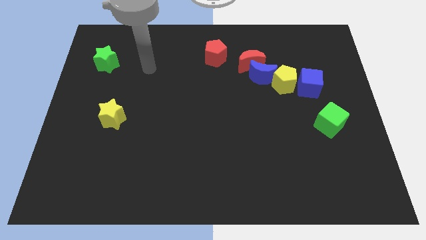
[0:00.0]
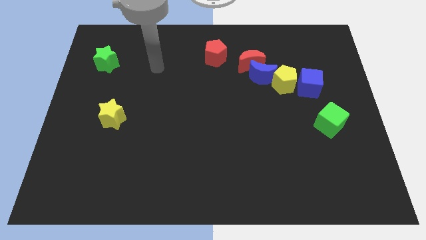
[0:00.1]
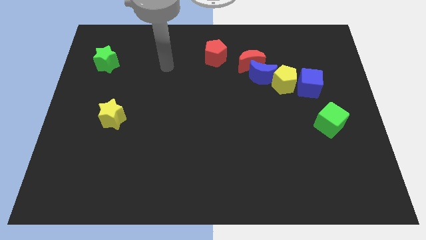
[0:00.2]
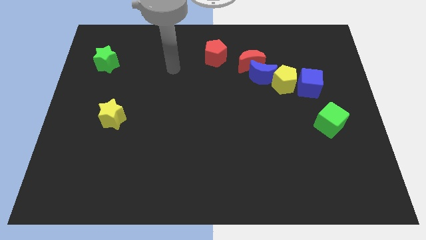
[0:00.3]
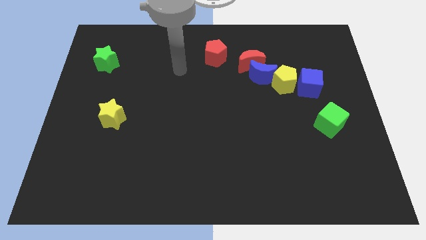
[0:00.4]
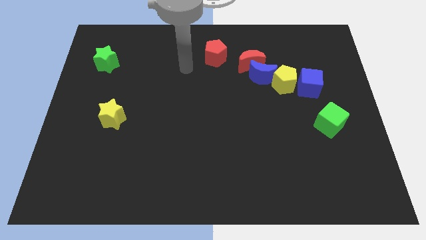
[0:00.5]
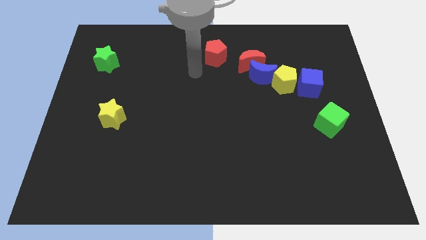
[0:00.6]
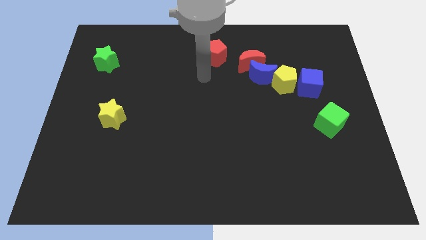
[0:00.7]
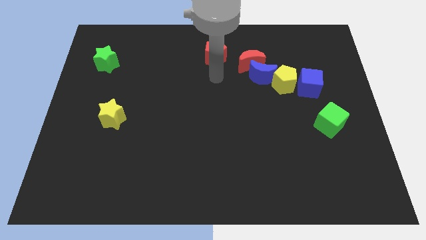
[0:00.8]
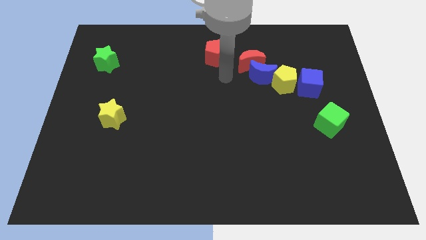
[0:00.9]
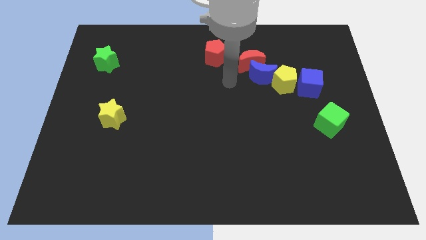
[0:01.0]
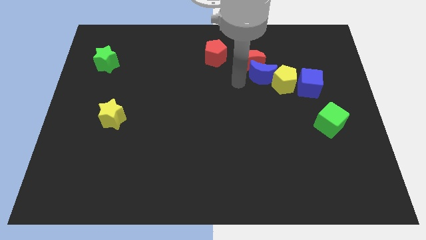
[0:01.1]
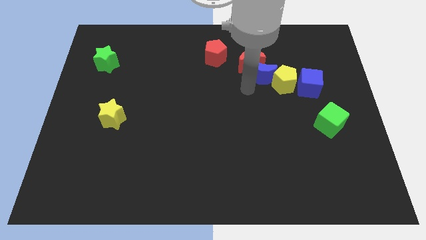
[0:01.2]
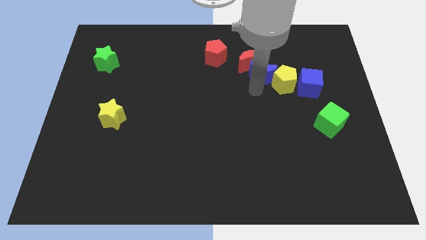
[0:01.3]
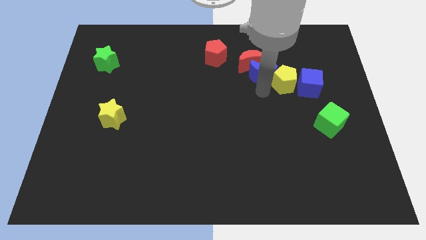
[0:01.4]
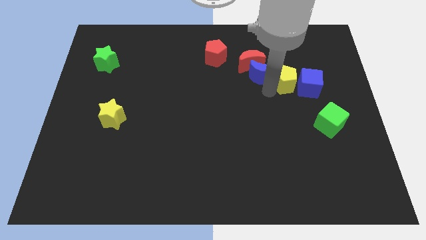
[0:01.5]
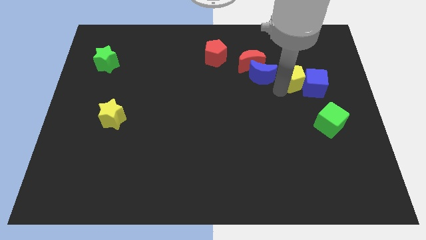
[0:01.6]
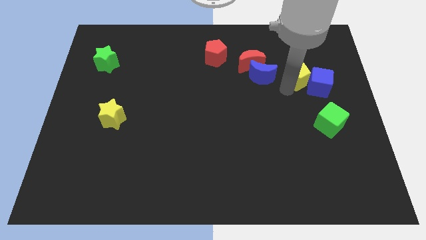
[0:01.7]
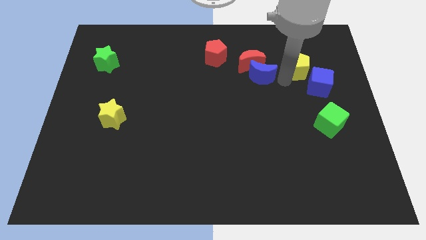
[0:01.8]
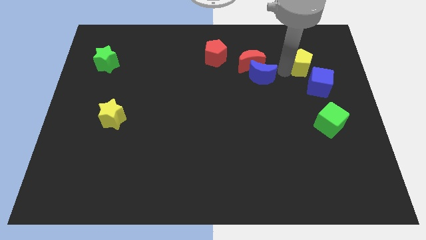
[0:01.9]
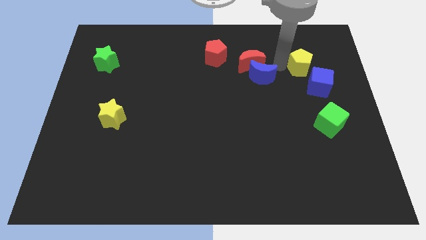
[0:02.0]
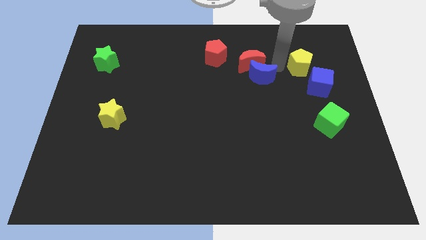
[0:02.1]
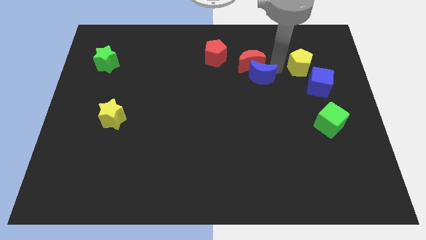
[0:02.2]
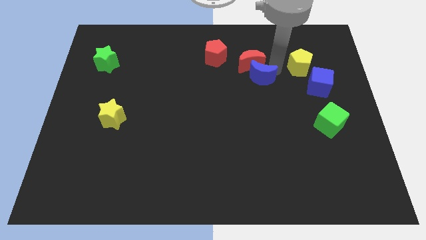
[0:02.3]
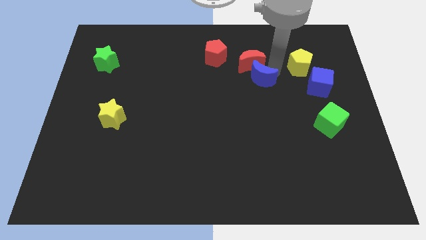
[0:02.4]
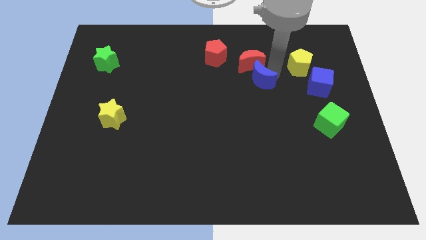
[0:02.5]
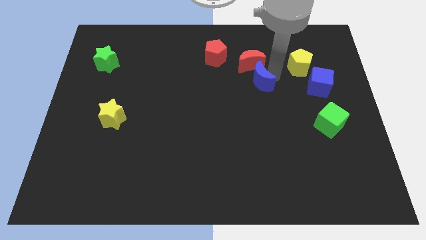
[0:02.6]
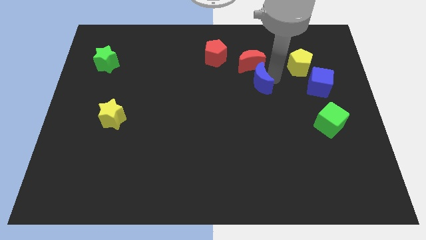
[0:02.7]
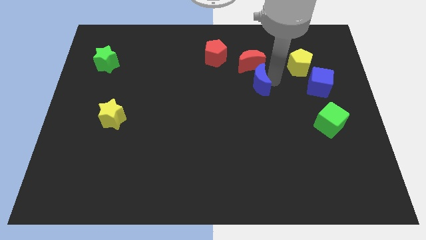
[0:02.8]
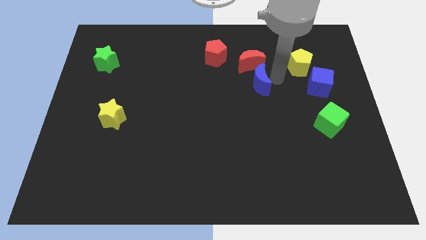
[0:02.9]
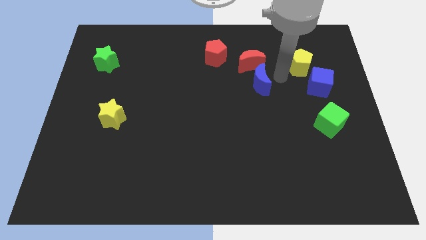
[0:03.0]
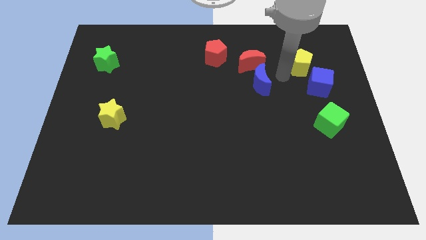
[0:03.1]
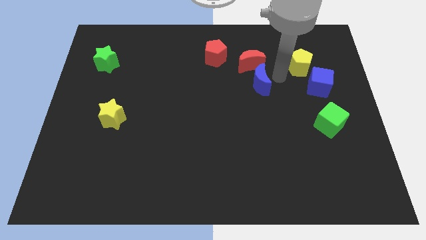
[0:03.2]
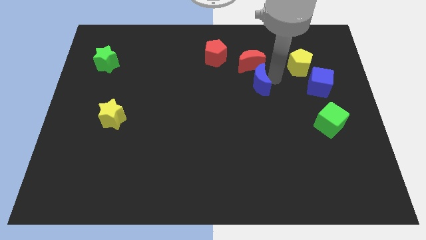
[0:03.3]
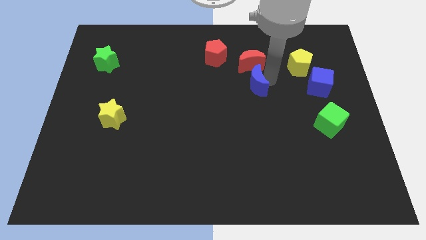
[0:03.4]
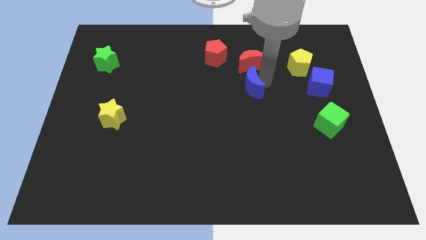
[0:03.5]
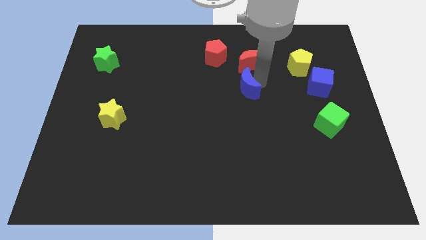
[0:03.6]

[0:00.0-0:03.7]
pull the blue moon apart from the red moon and yellow pentagon

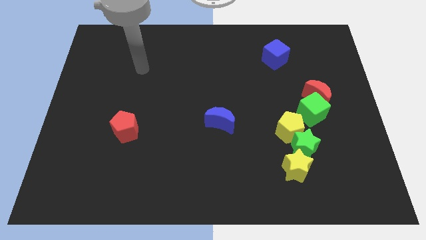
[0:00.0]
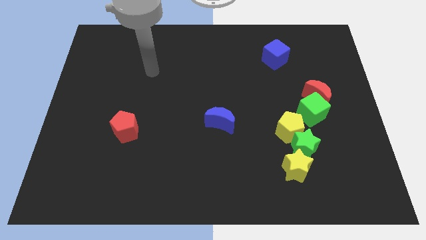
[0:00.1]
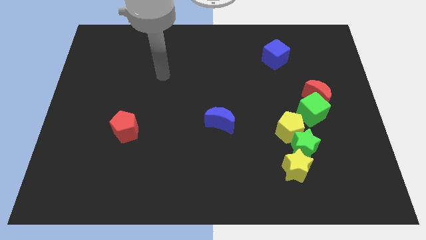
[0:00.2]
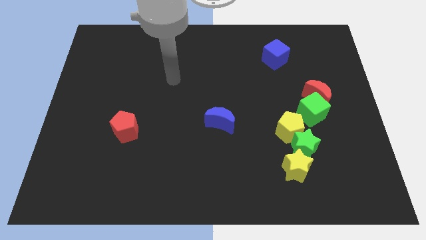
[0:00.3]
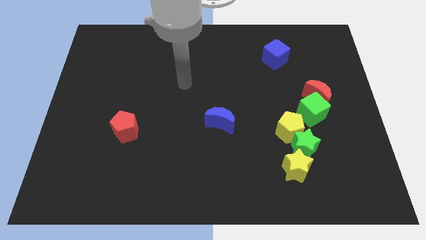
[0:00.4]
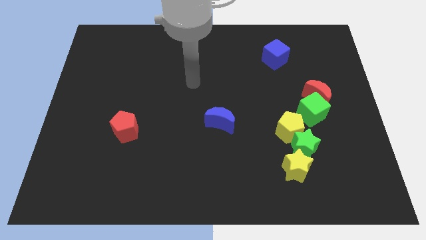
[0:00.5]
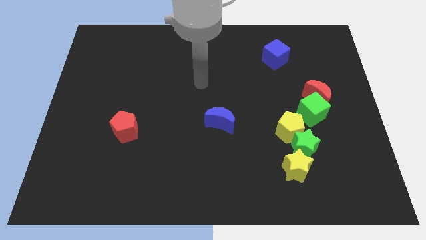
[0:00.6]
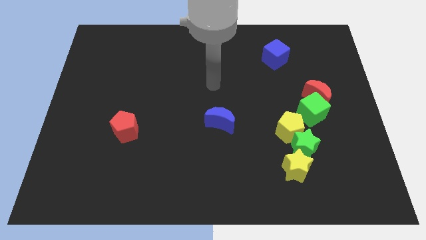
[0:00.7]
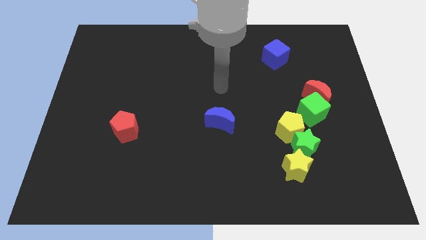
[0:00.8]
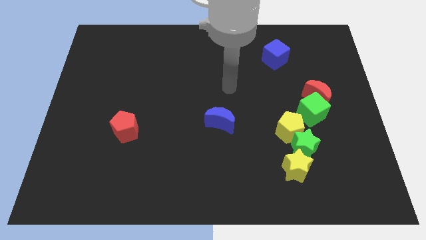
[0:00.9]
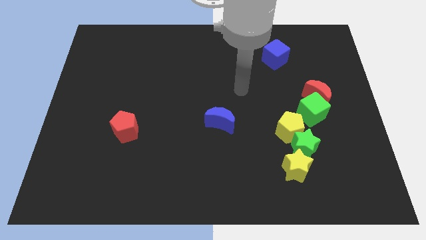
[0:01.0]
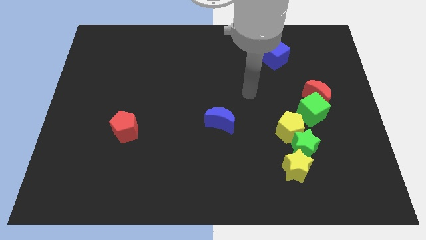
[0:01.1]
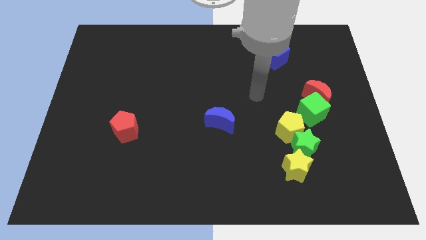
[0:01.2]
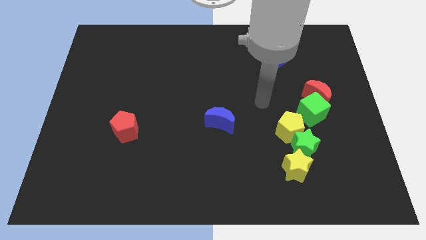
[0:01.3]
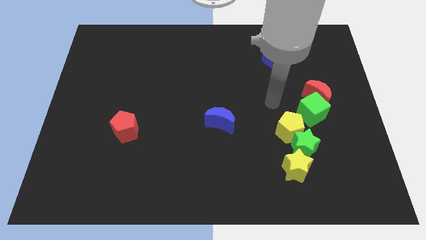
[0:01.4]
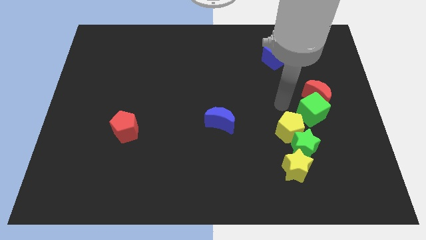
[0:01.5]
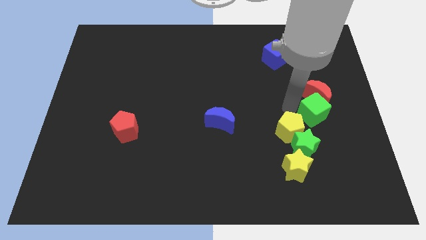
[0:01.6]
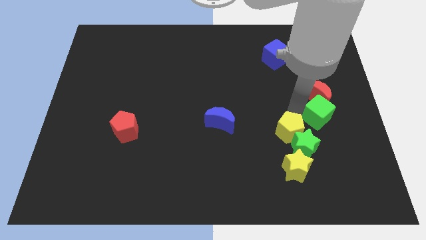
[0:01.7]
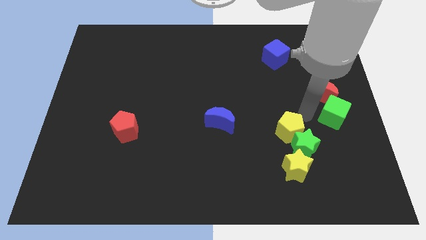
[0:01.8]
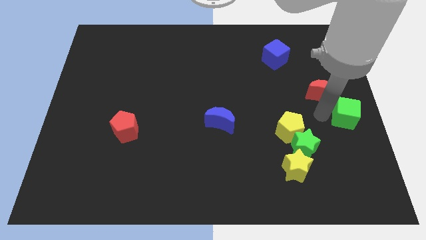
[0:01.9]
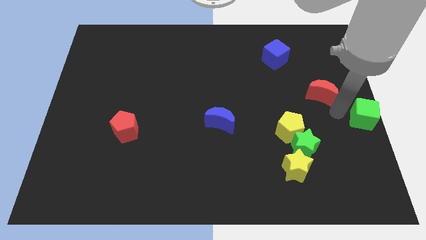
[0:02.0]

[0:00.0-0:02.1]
separate the red moon from the green cube

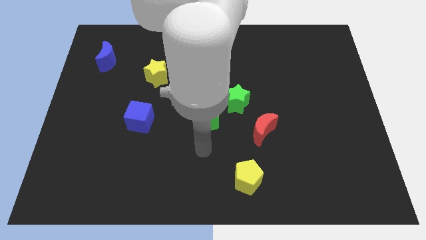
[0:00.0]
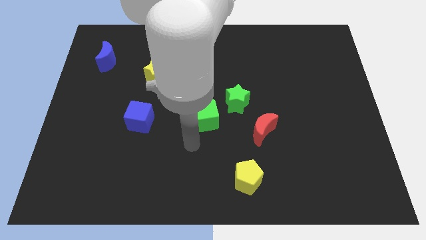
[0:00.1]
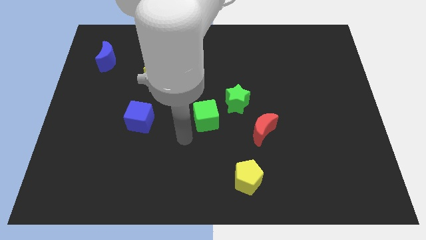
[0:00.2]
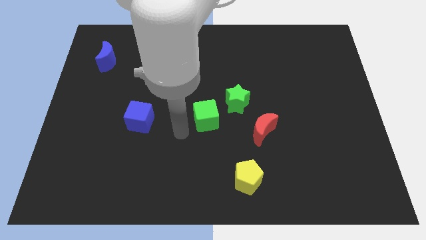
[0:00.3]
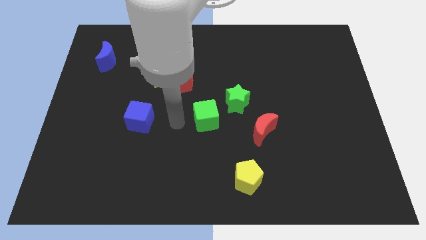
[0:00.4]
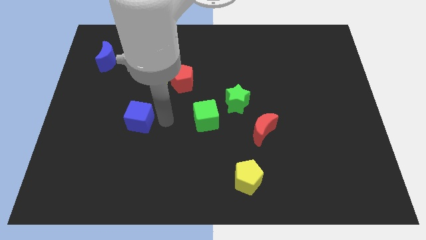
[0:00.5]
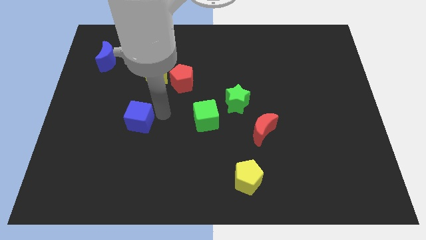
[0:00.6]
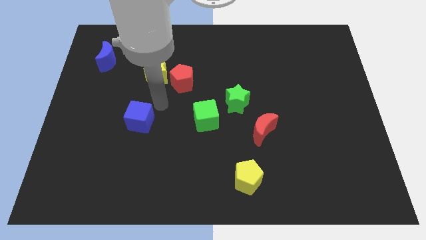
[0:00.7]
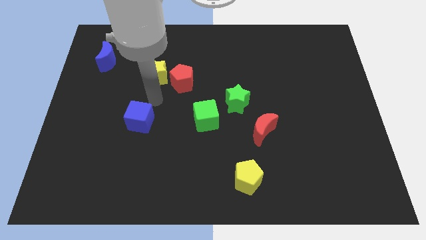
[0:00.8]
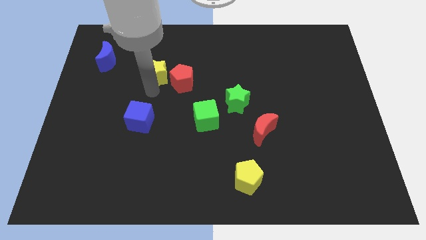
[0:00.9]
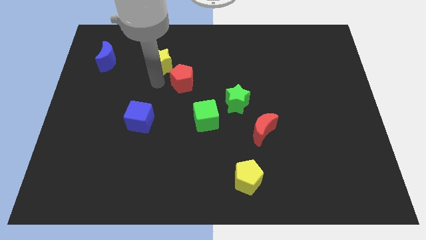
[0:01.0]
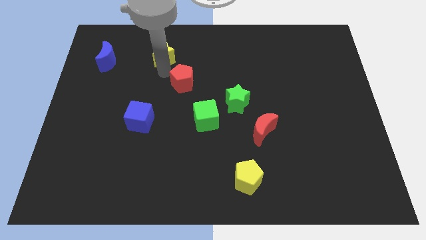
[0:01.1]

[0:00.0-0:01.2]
move the red pentagon away from the yellow star

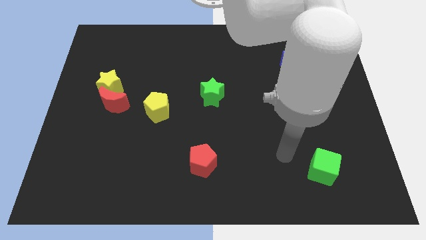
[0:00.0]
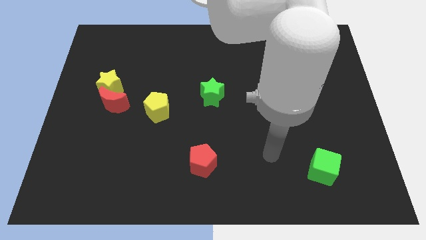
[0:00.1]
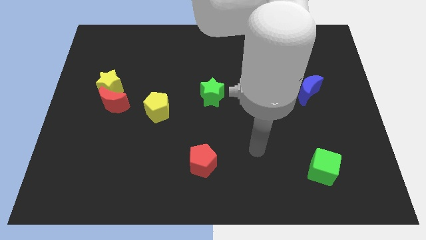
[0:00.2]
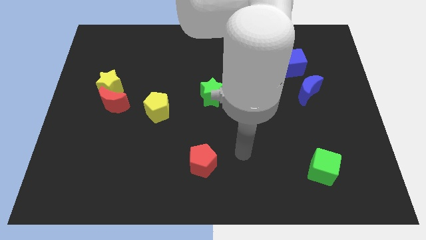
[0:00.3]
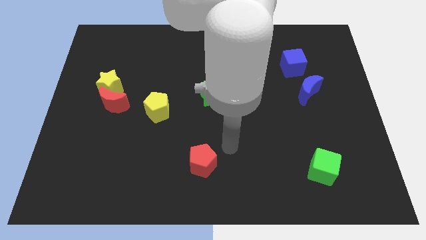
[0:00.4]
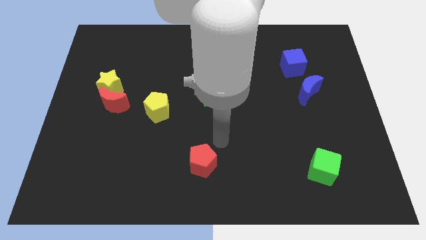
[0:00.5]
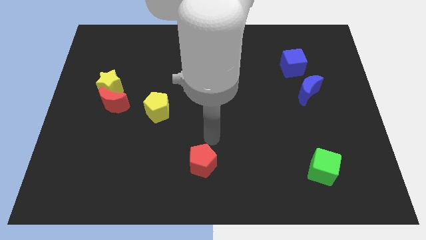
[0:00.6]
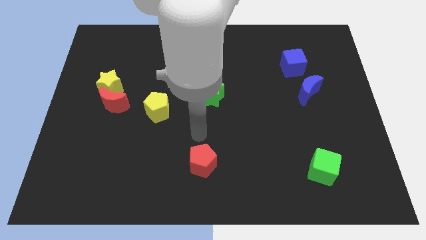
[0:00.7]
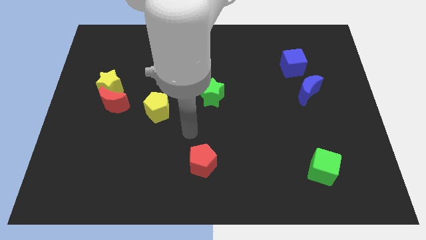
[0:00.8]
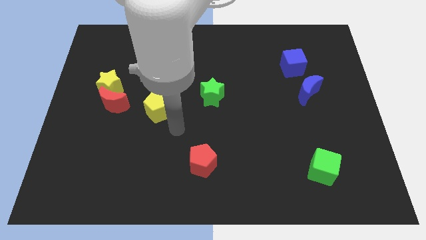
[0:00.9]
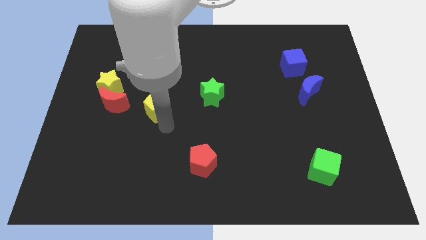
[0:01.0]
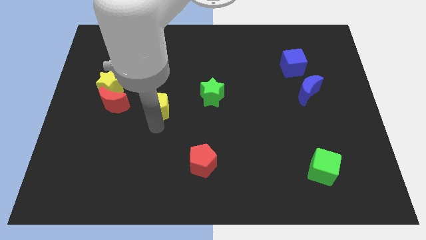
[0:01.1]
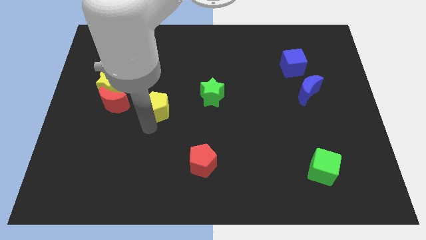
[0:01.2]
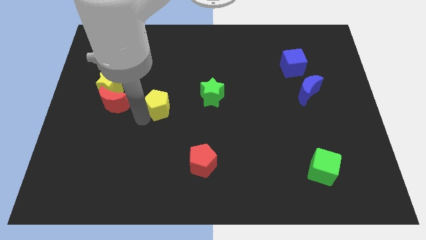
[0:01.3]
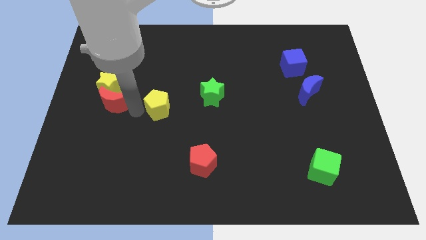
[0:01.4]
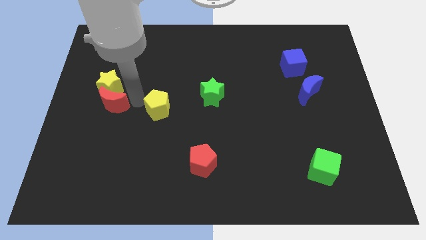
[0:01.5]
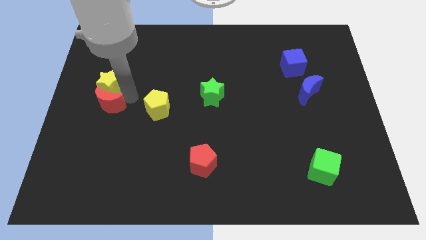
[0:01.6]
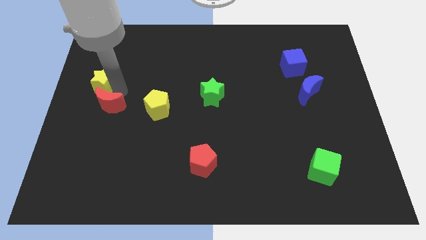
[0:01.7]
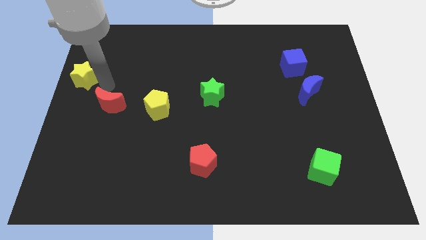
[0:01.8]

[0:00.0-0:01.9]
separate the red moon from the yellow star

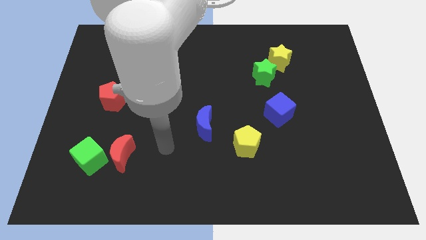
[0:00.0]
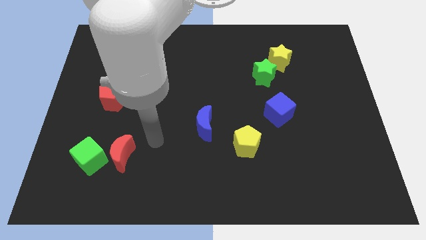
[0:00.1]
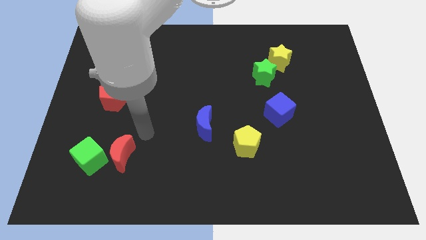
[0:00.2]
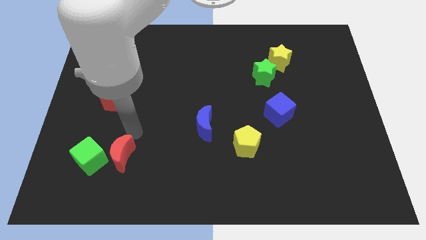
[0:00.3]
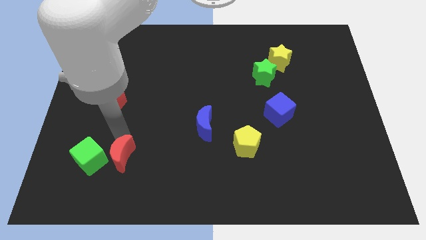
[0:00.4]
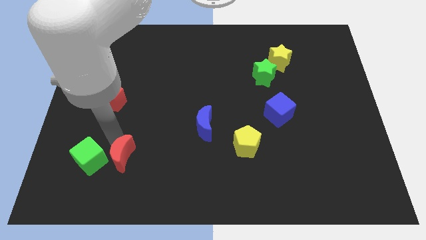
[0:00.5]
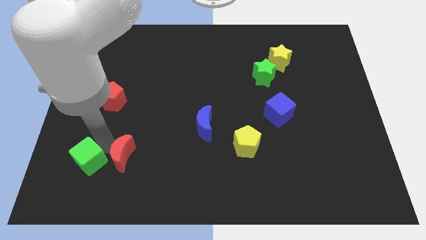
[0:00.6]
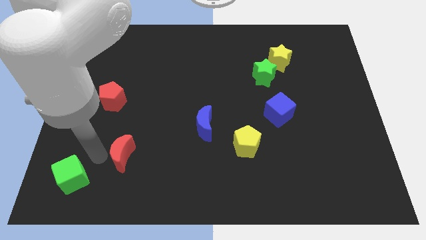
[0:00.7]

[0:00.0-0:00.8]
pull the red moon apart from the green cube
